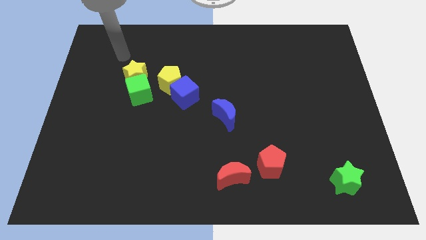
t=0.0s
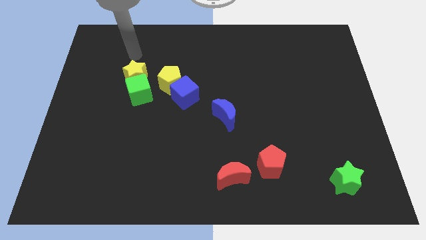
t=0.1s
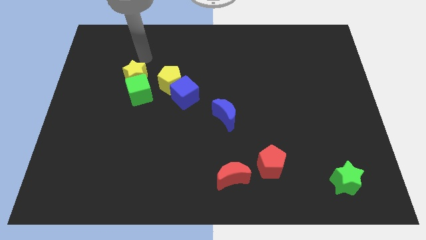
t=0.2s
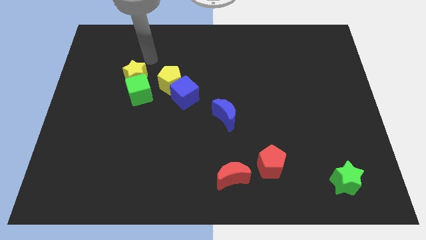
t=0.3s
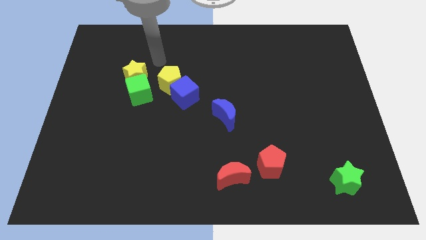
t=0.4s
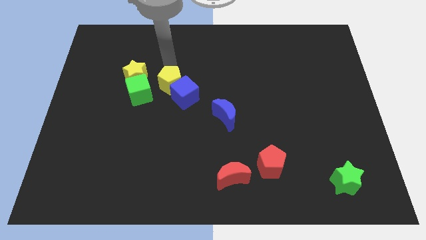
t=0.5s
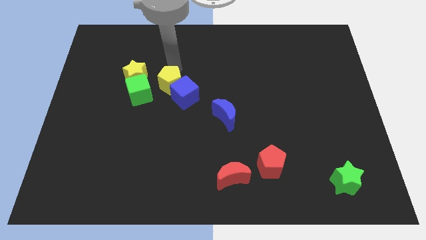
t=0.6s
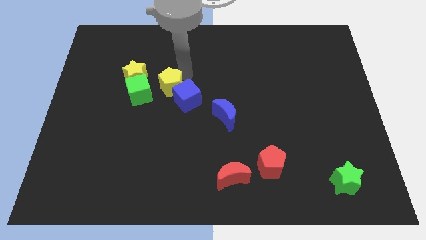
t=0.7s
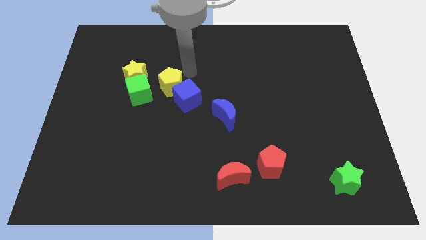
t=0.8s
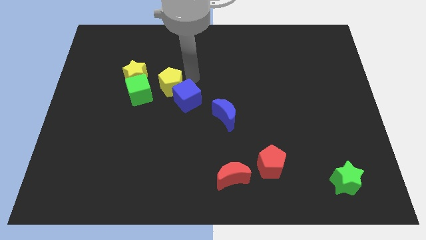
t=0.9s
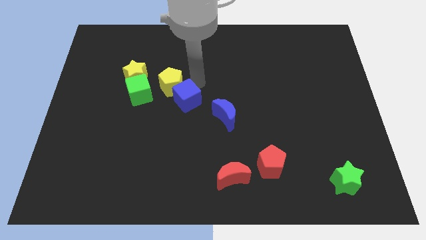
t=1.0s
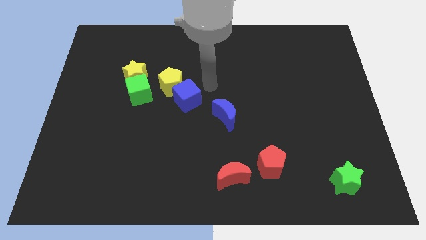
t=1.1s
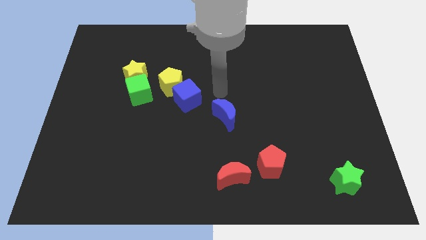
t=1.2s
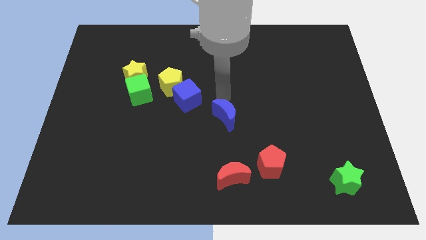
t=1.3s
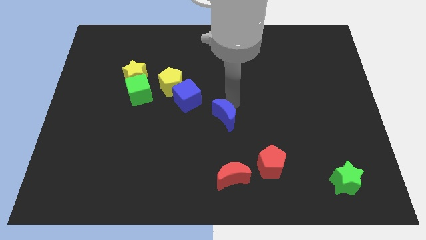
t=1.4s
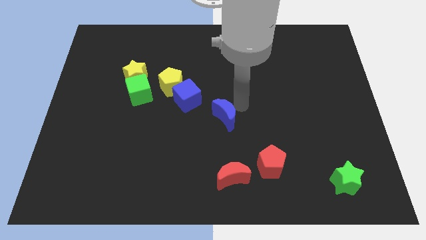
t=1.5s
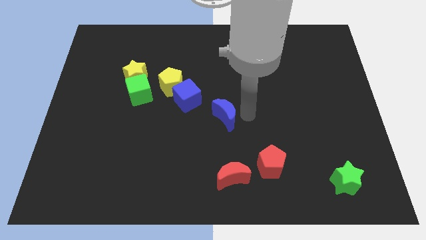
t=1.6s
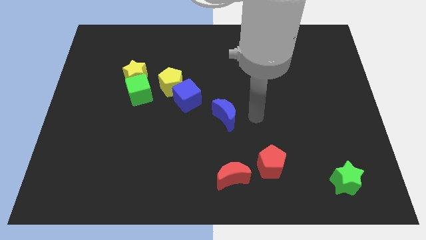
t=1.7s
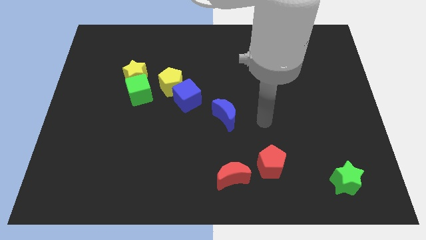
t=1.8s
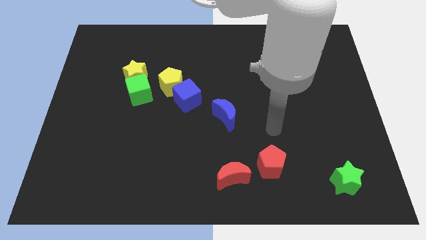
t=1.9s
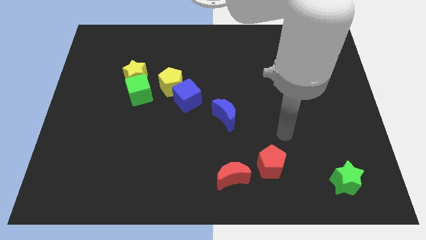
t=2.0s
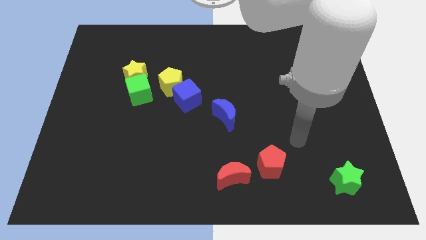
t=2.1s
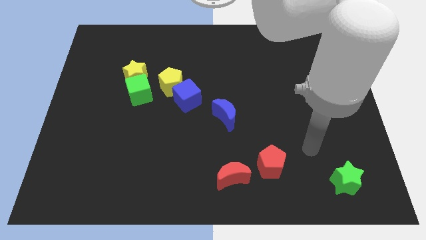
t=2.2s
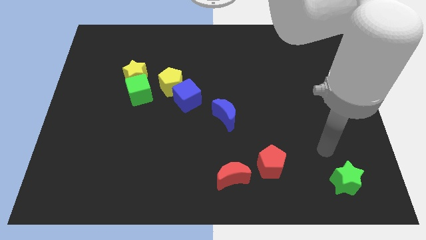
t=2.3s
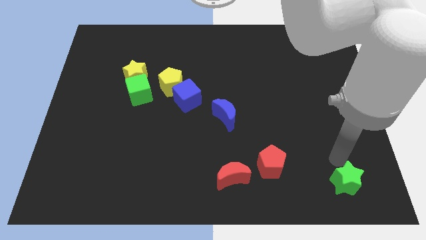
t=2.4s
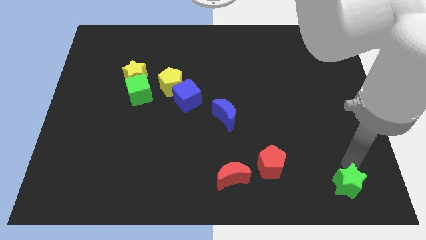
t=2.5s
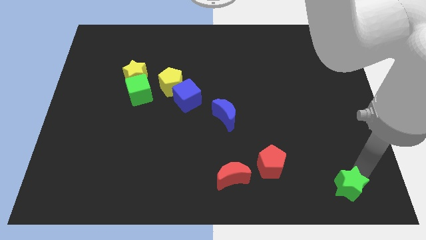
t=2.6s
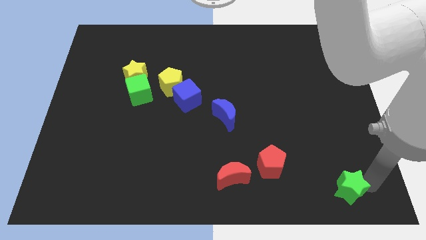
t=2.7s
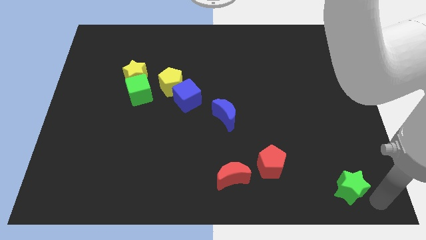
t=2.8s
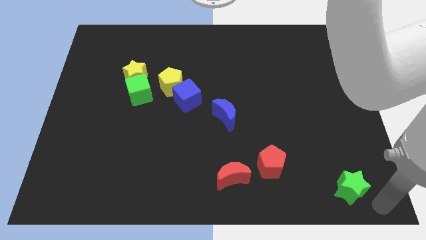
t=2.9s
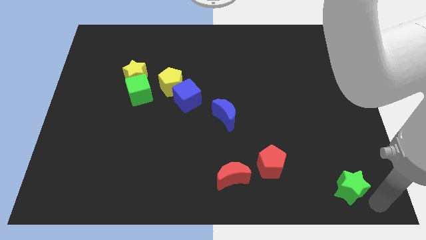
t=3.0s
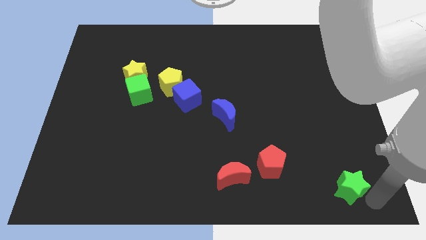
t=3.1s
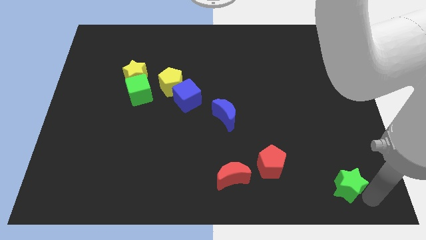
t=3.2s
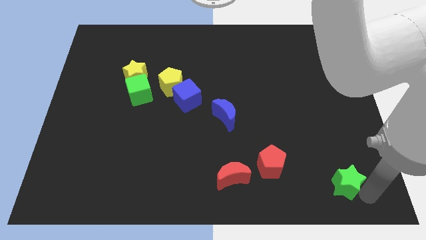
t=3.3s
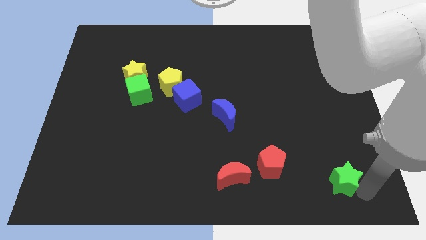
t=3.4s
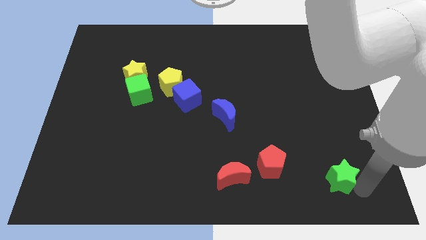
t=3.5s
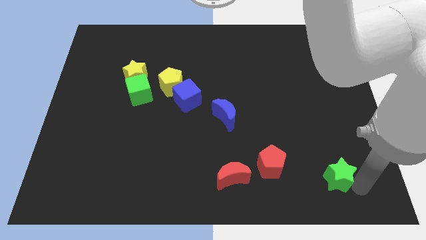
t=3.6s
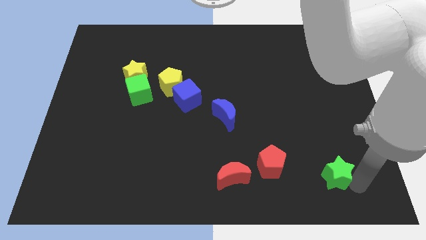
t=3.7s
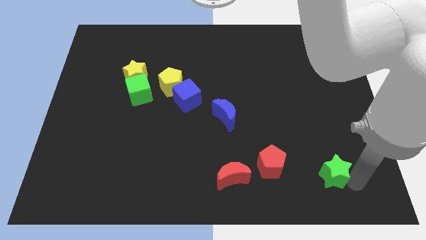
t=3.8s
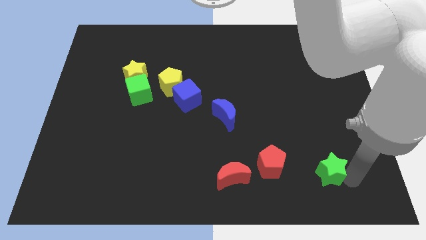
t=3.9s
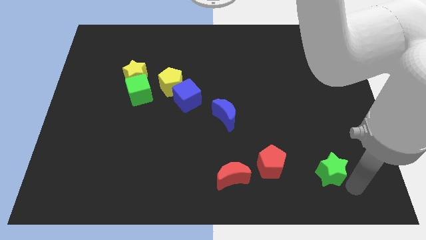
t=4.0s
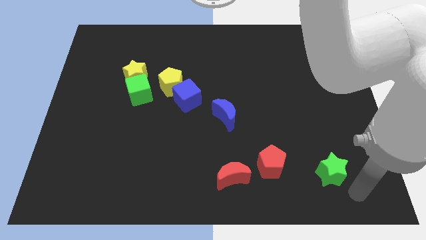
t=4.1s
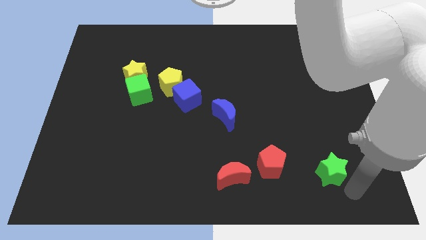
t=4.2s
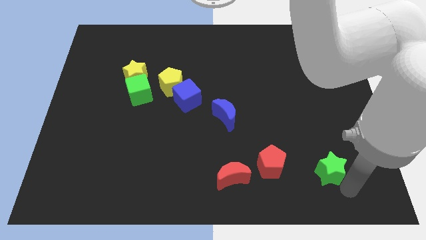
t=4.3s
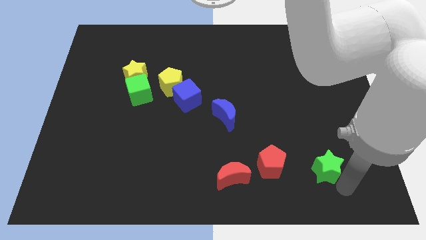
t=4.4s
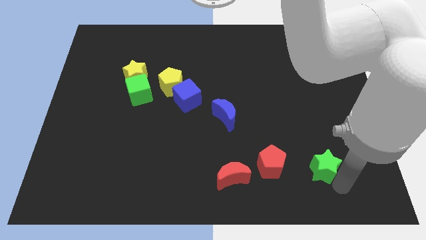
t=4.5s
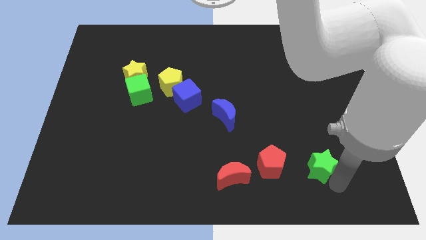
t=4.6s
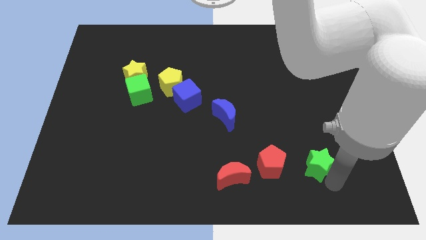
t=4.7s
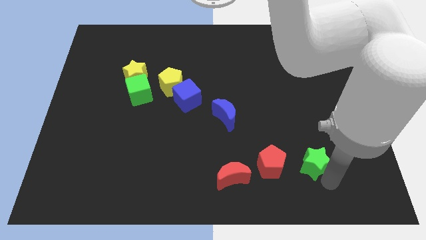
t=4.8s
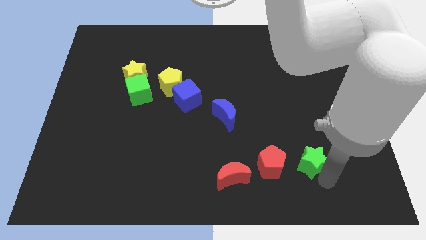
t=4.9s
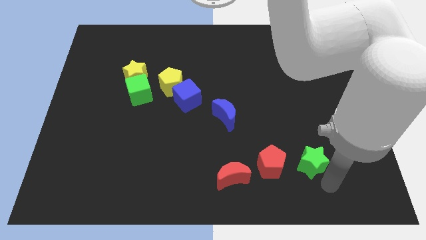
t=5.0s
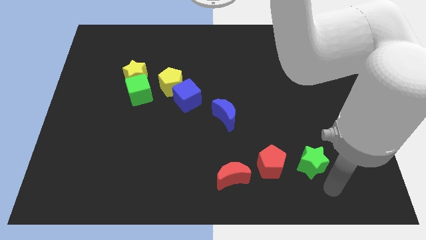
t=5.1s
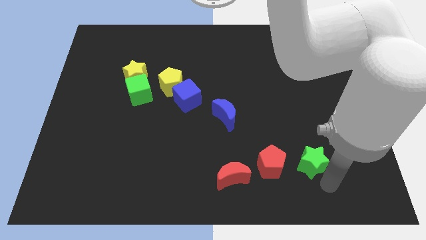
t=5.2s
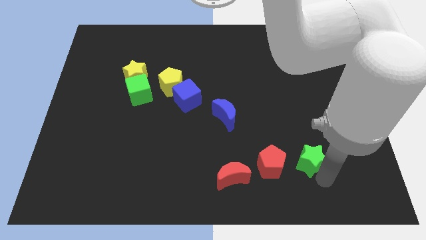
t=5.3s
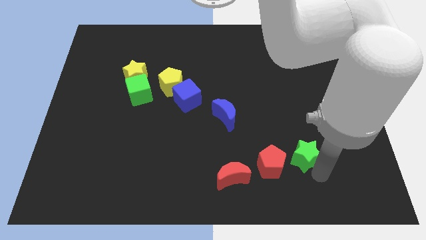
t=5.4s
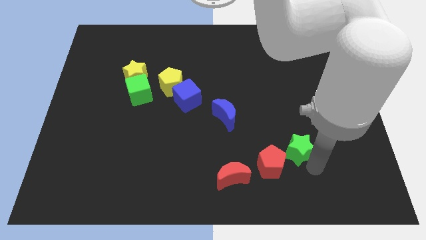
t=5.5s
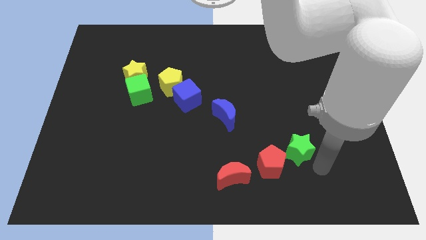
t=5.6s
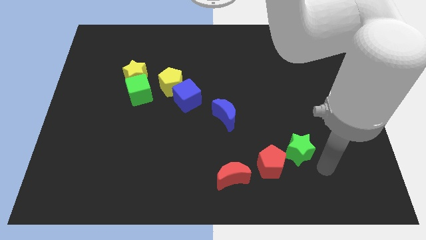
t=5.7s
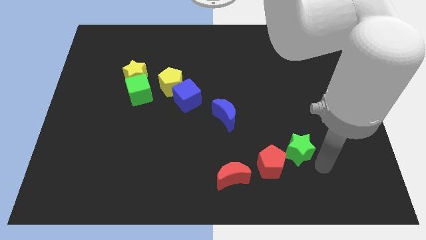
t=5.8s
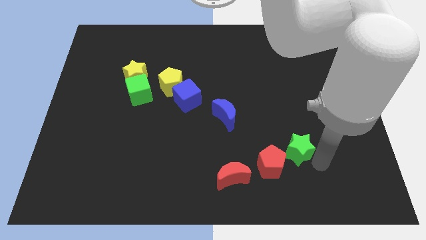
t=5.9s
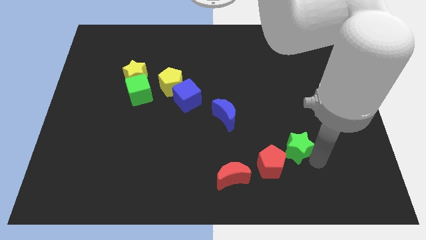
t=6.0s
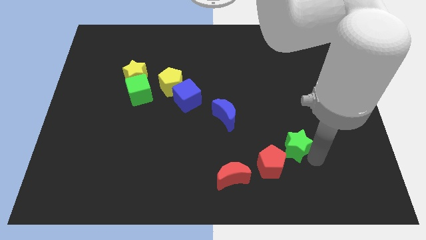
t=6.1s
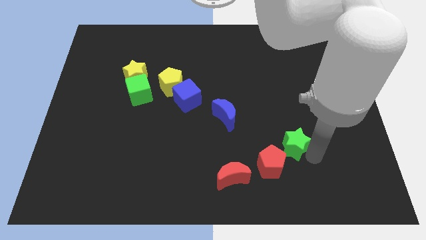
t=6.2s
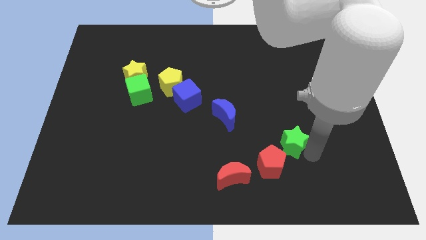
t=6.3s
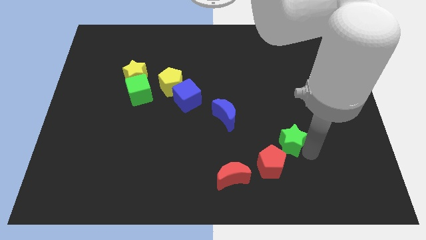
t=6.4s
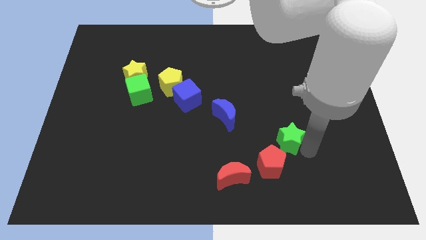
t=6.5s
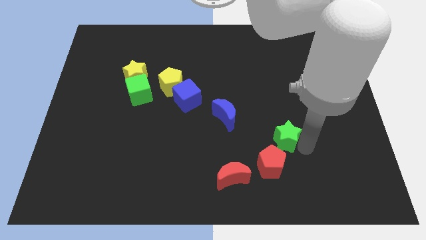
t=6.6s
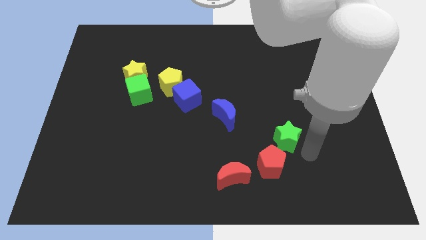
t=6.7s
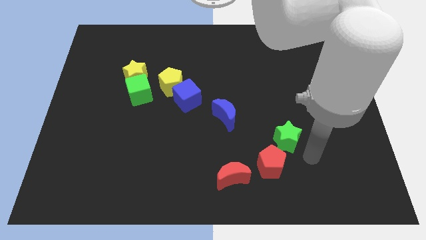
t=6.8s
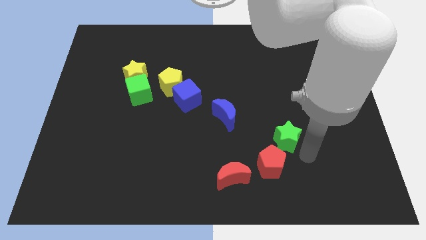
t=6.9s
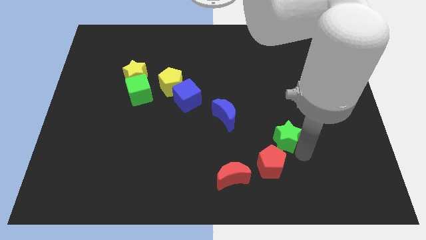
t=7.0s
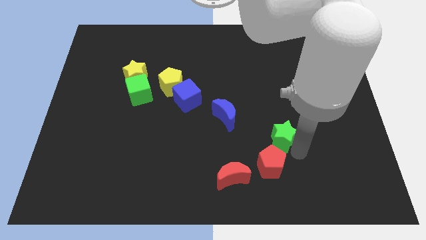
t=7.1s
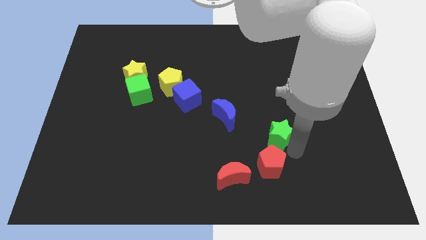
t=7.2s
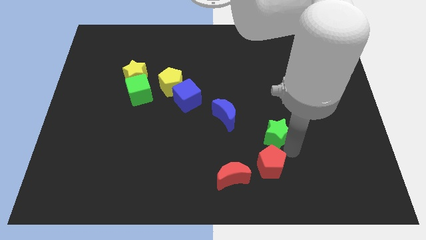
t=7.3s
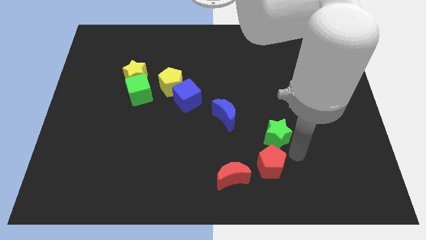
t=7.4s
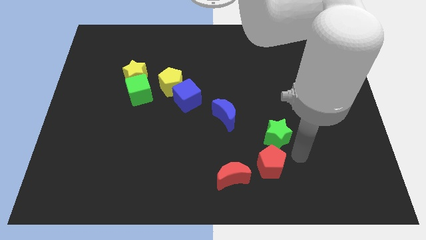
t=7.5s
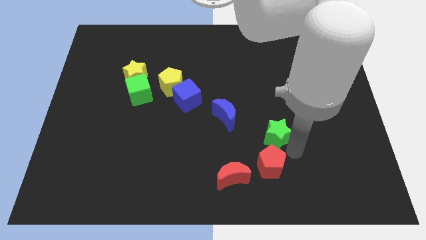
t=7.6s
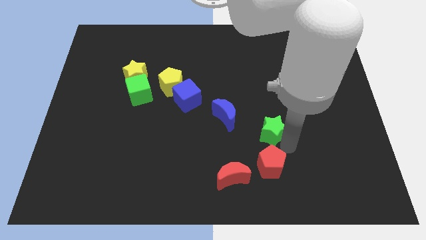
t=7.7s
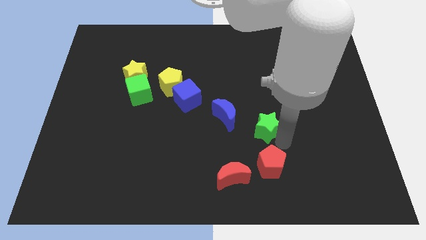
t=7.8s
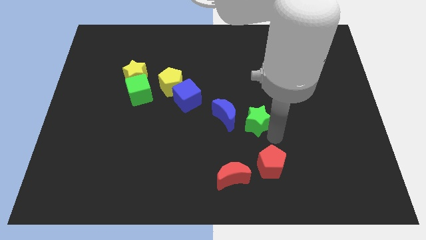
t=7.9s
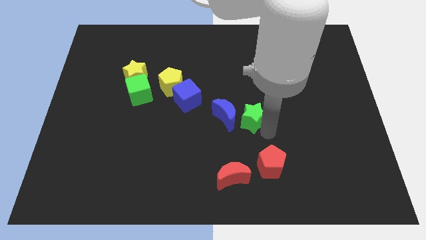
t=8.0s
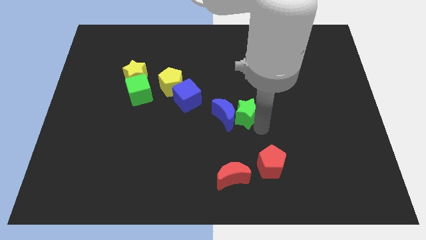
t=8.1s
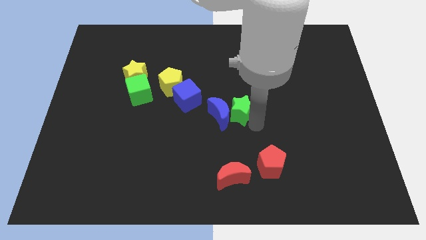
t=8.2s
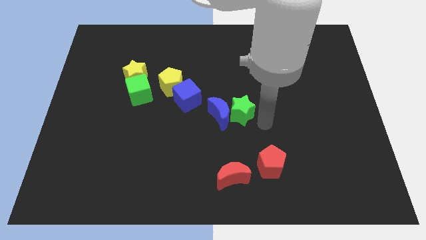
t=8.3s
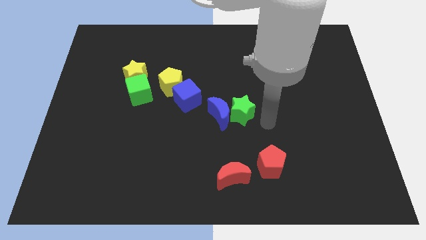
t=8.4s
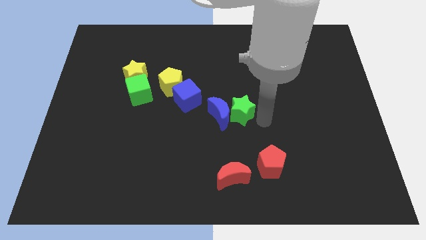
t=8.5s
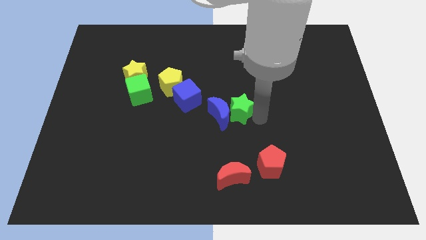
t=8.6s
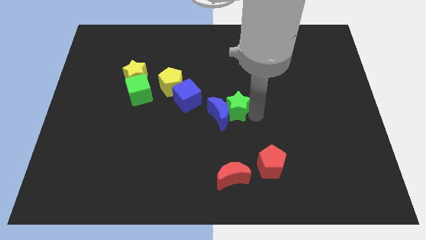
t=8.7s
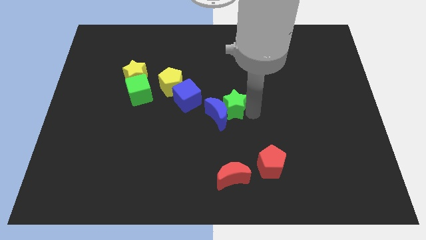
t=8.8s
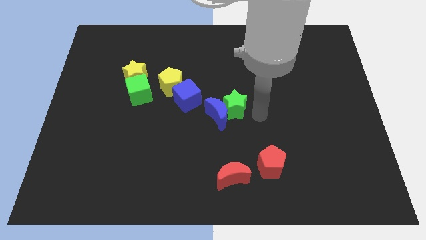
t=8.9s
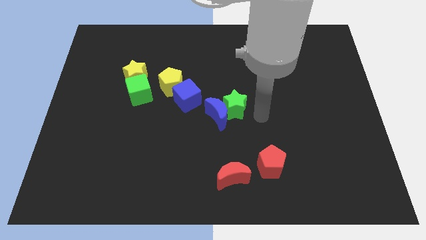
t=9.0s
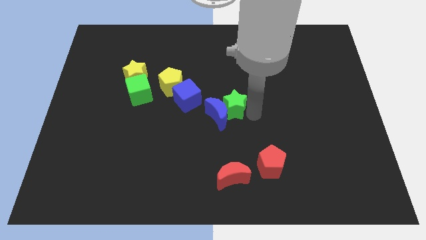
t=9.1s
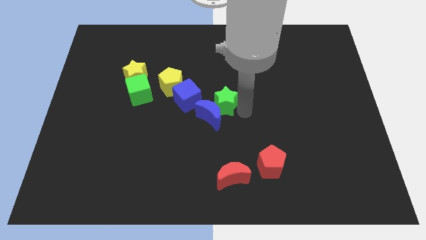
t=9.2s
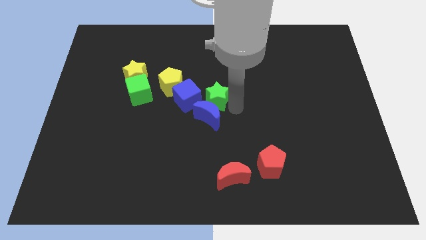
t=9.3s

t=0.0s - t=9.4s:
move the green star diagonally up and to the left of the blue moon
